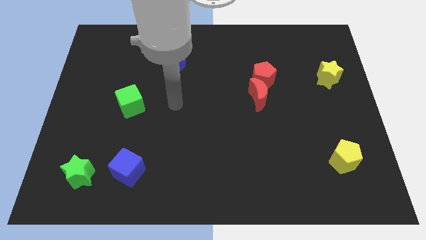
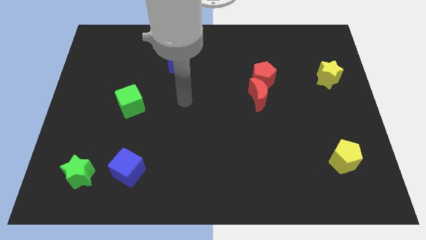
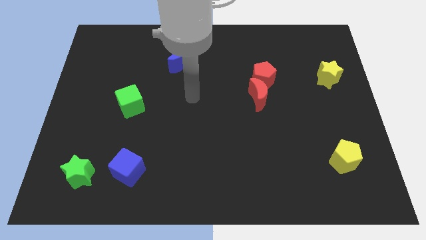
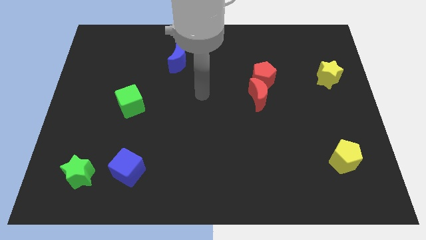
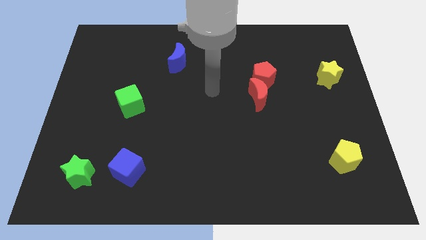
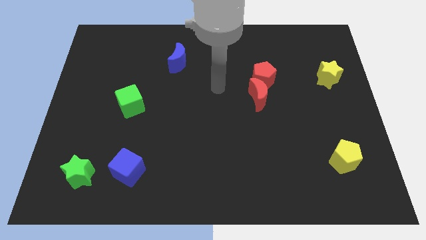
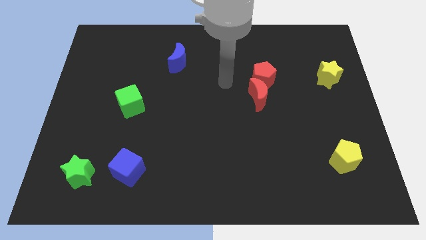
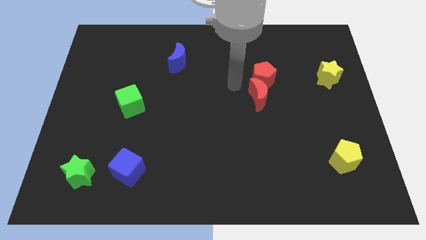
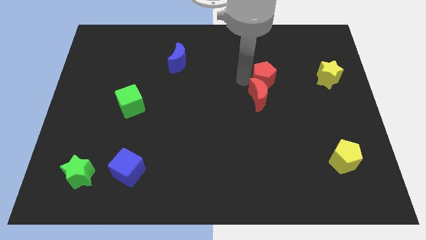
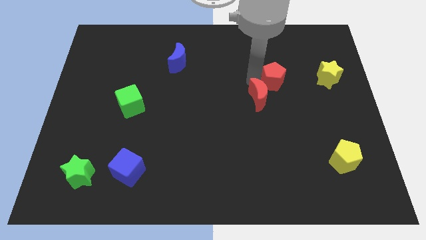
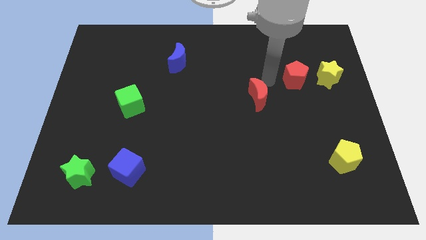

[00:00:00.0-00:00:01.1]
move the red moon away from the red pentagon

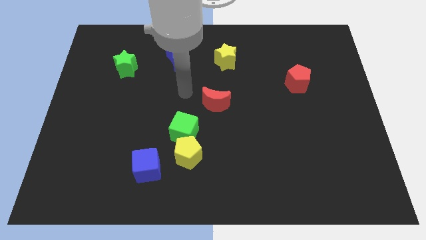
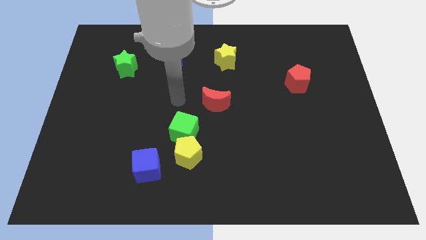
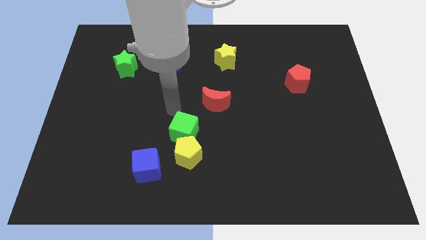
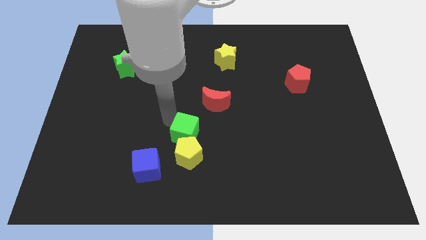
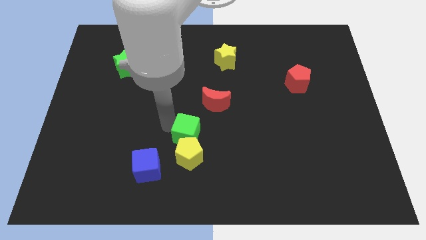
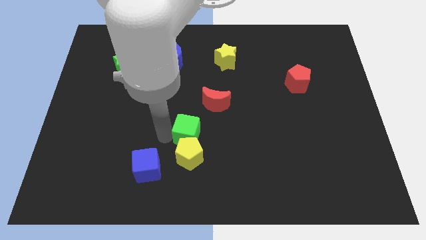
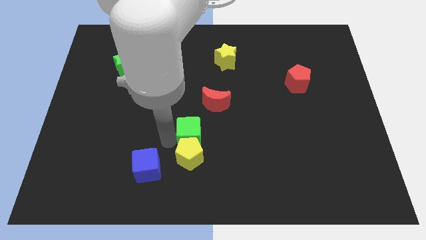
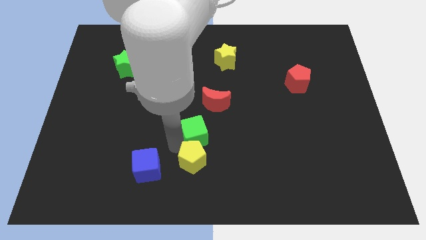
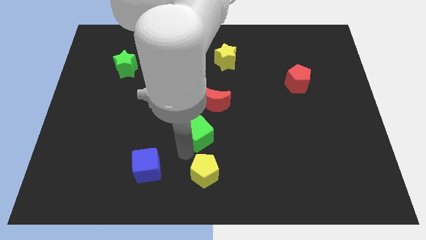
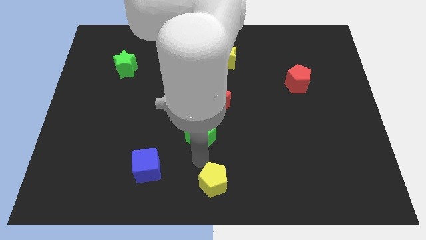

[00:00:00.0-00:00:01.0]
move the green cube away from the yellow pentagon

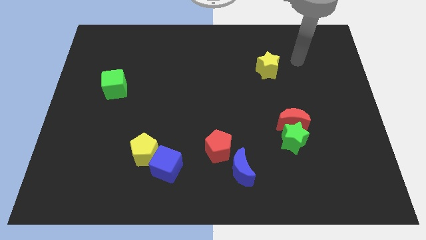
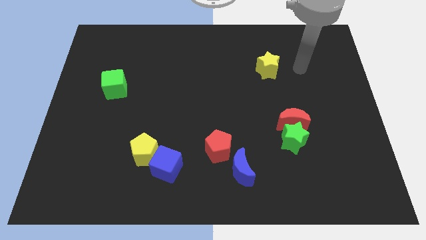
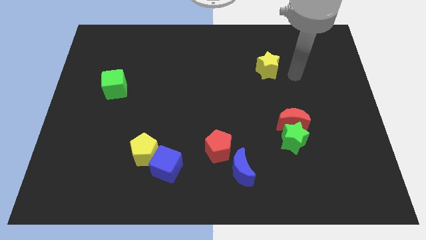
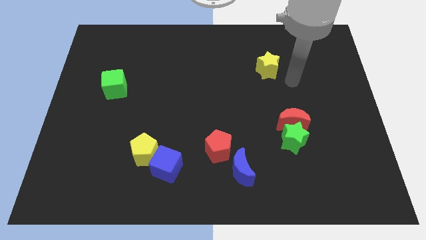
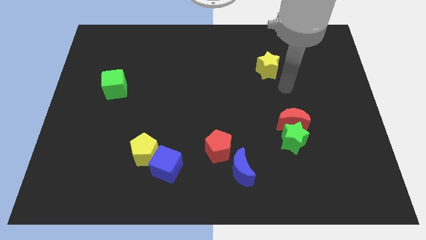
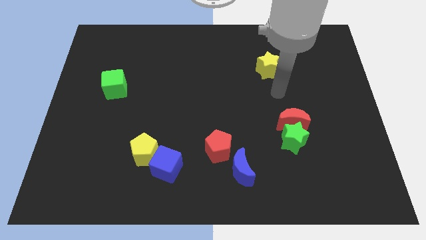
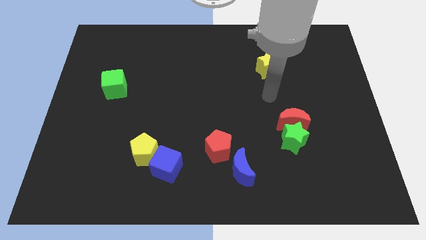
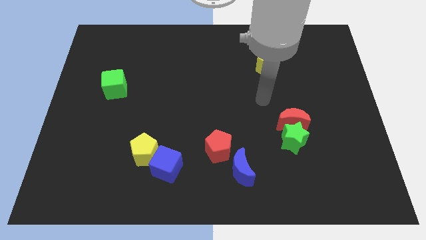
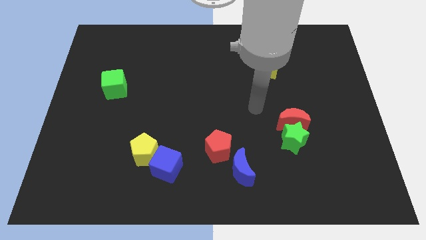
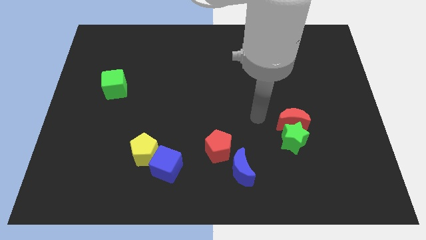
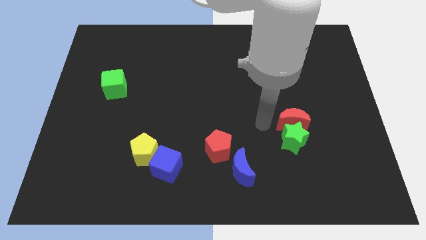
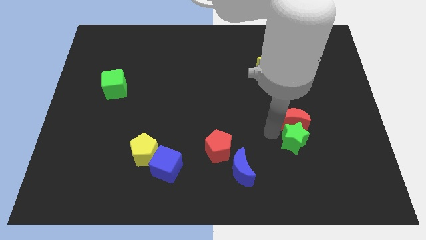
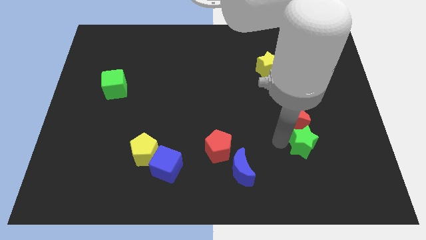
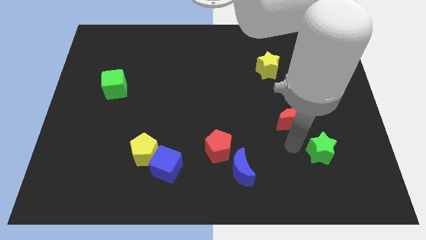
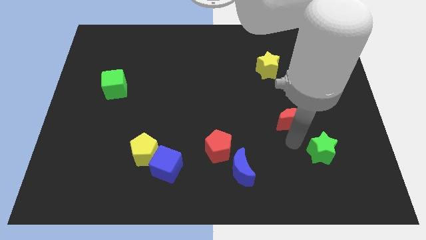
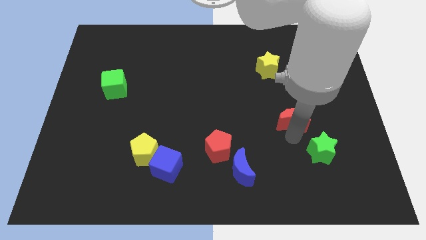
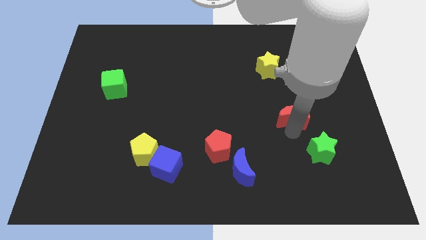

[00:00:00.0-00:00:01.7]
move the red moon away from the green star

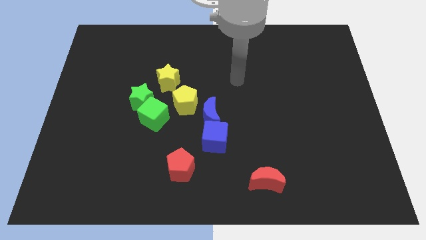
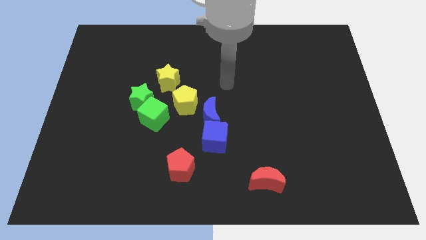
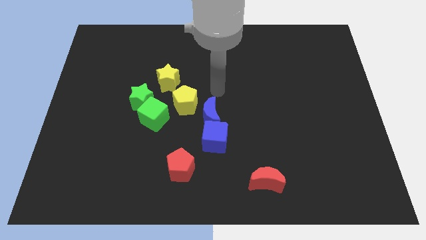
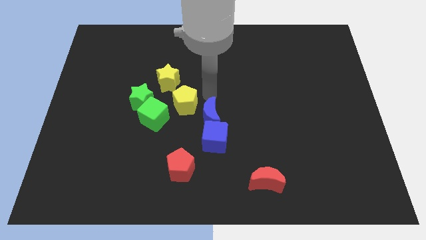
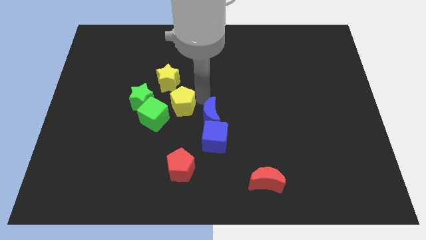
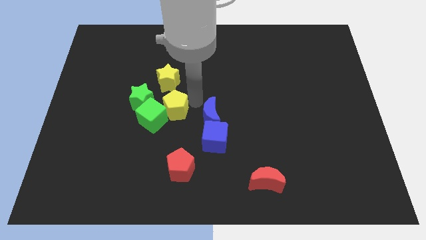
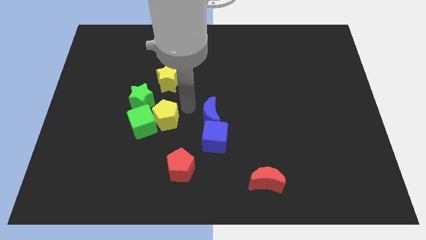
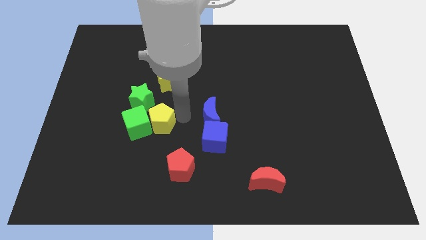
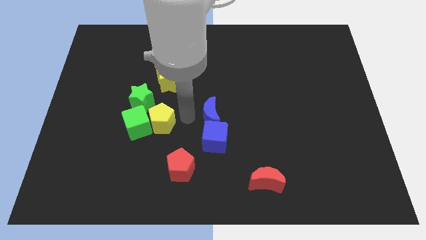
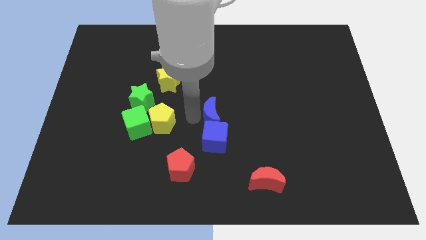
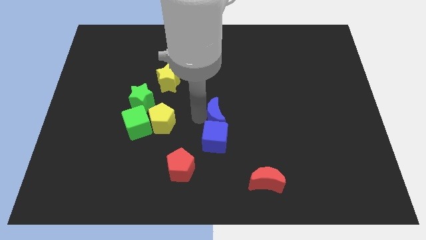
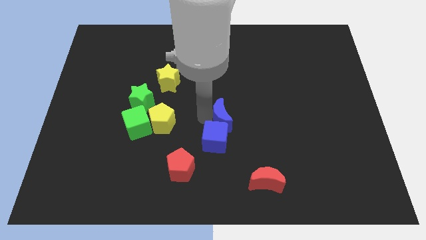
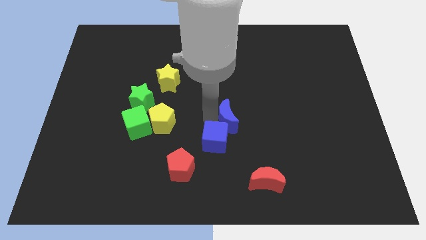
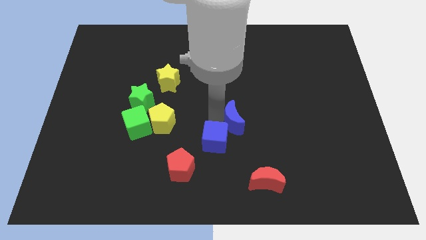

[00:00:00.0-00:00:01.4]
move the blue moon away from the blue cube and yellow pentagon

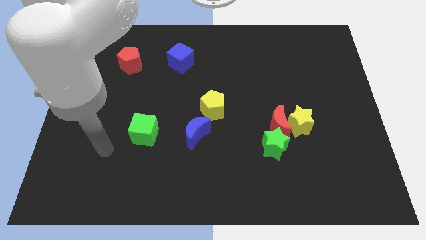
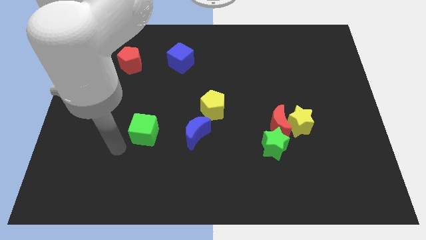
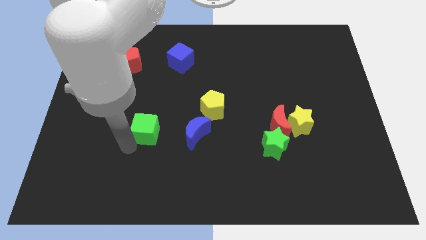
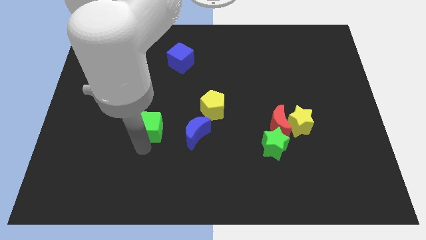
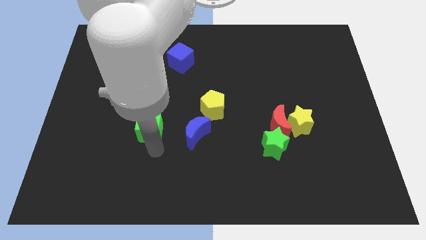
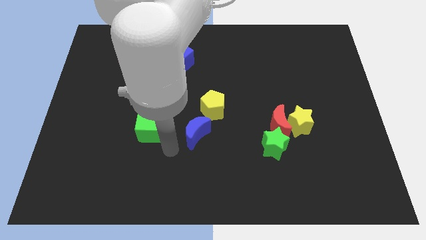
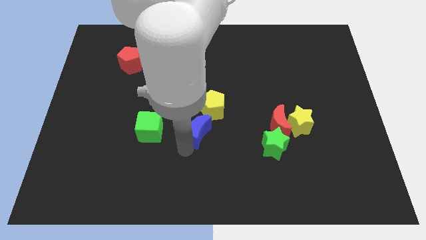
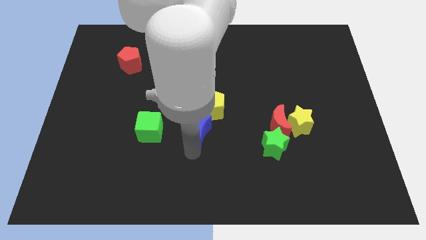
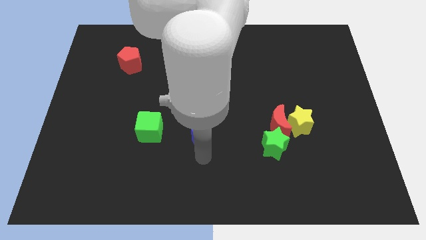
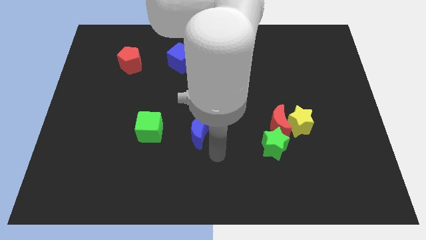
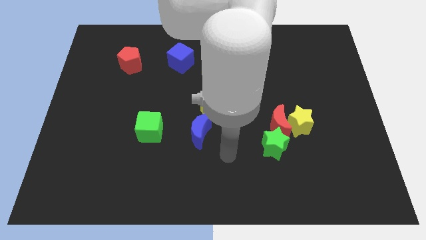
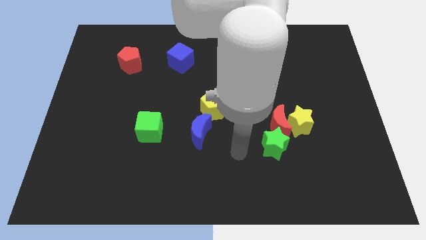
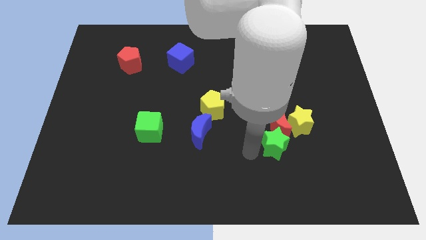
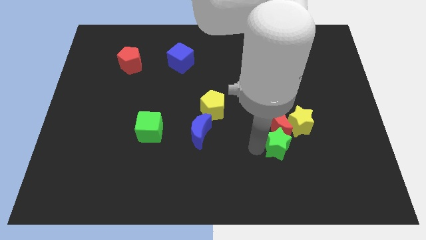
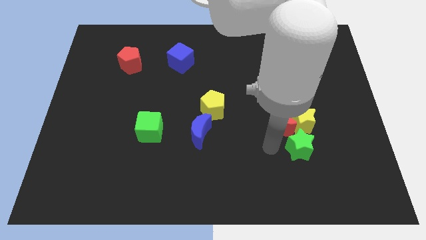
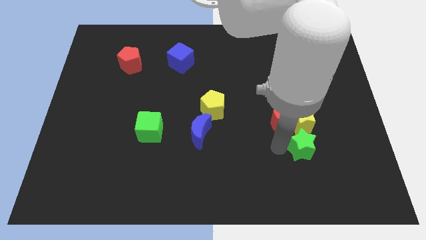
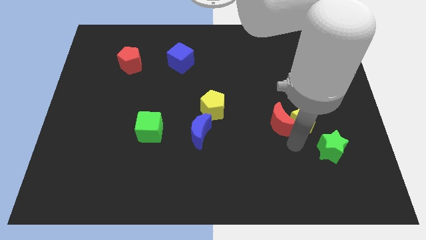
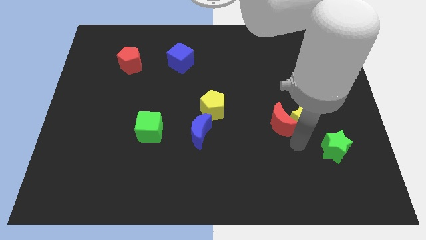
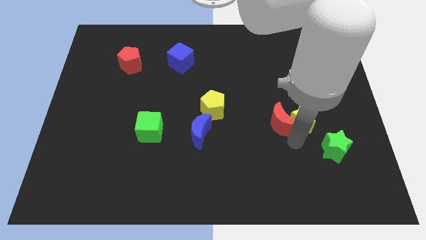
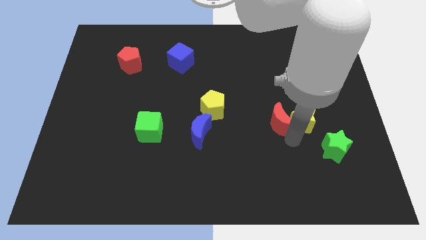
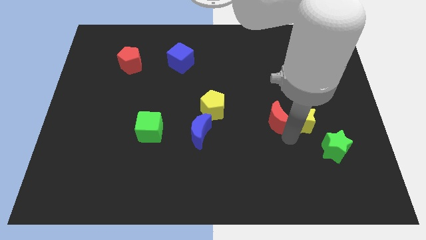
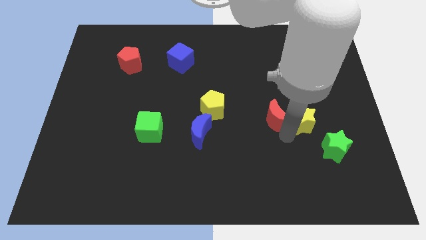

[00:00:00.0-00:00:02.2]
move the red moon away from the yellow star and green star

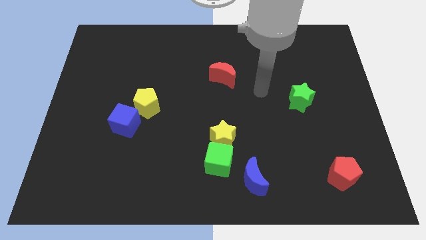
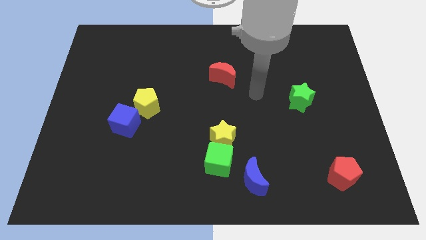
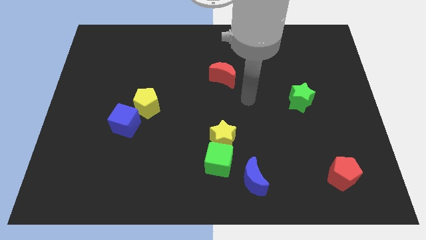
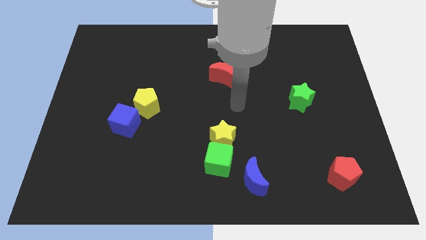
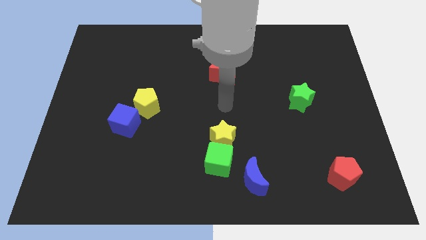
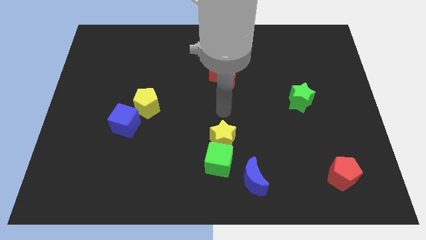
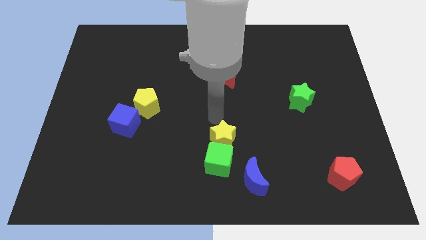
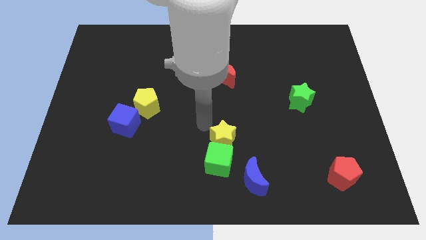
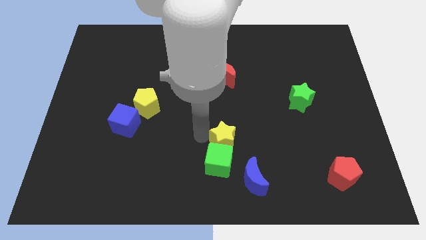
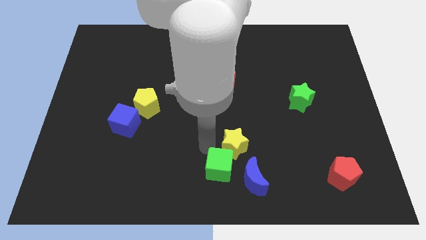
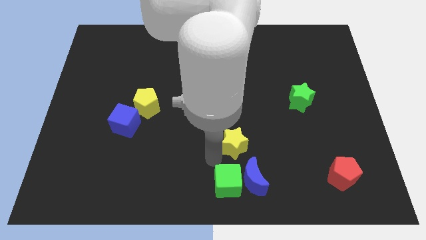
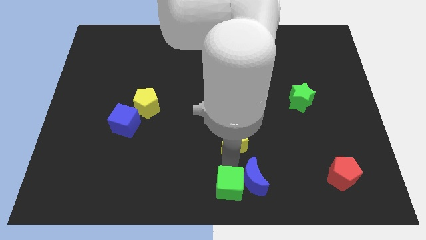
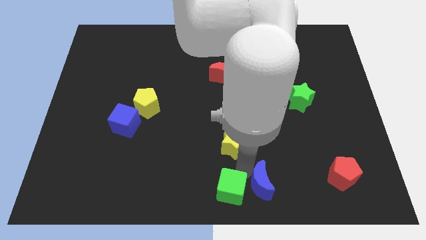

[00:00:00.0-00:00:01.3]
separate the yellow star from the green cube

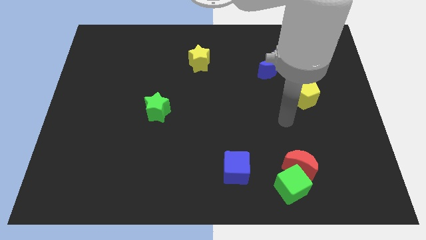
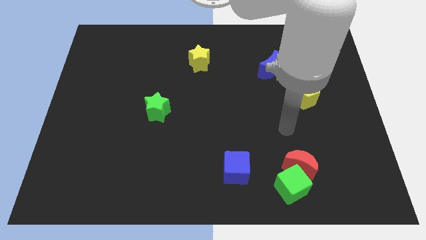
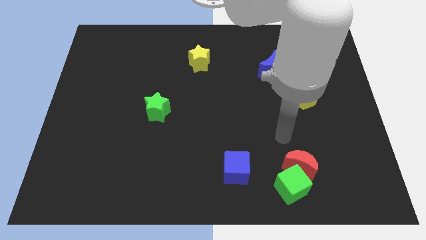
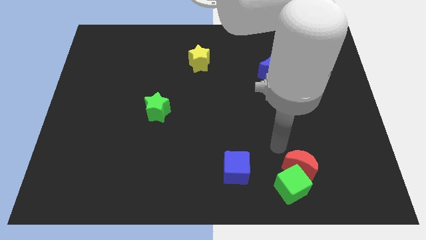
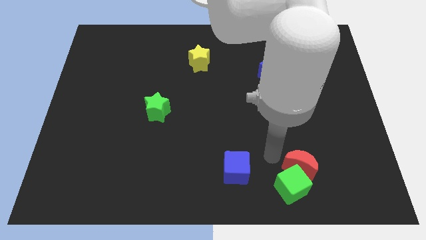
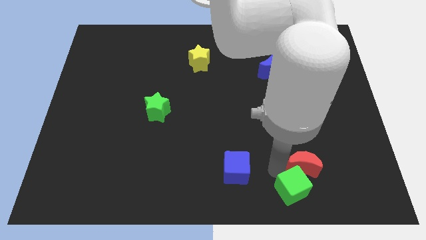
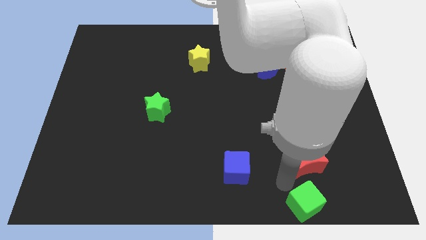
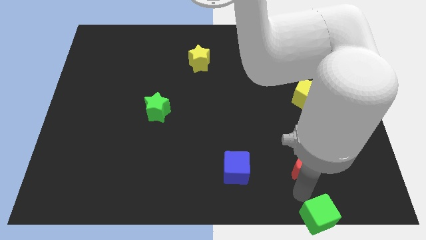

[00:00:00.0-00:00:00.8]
move the red moon away from the green cube
